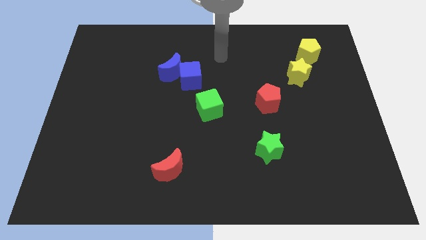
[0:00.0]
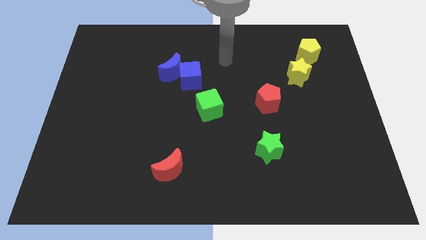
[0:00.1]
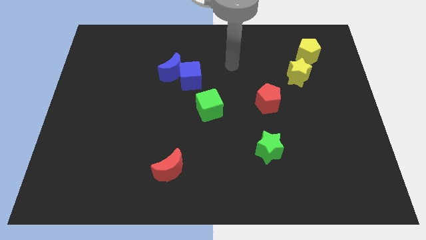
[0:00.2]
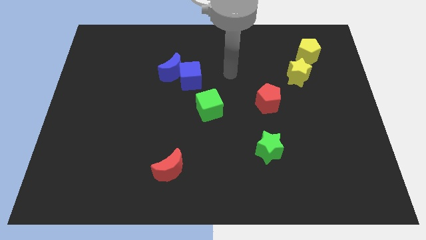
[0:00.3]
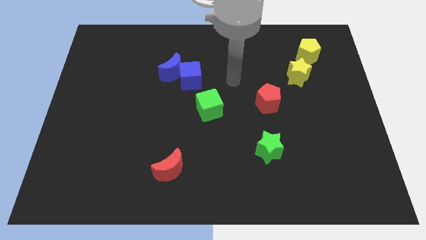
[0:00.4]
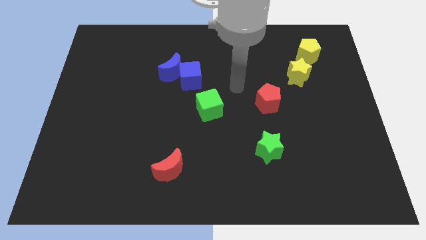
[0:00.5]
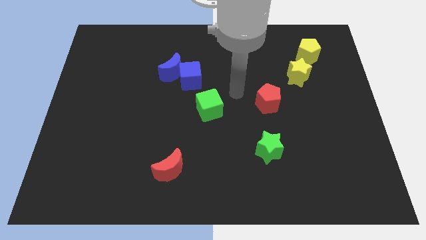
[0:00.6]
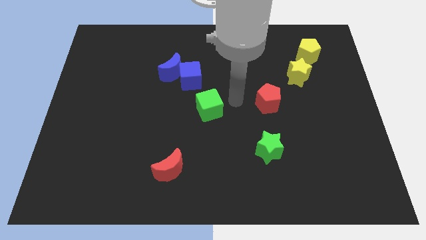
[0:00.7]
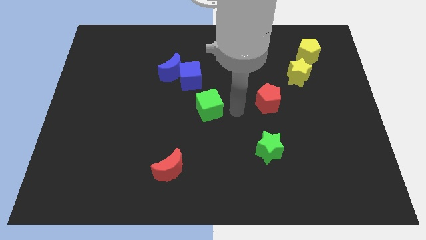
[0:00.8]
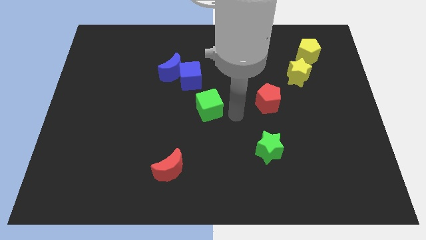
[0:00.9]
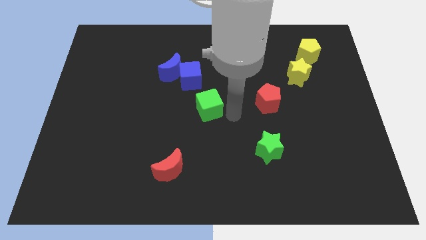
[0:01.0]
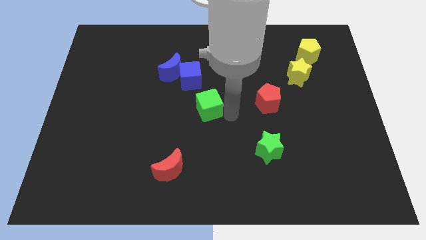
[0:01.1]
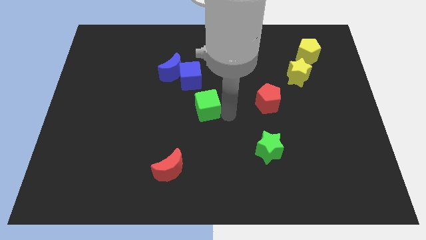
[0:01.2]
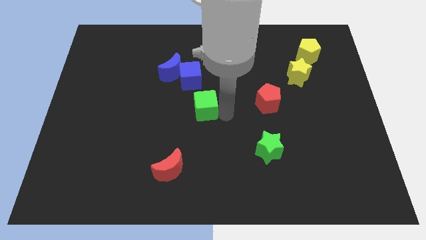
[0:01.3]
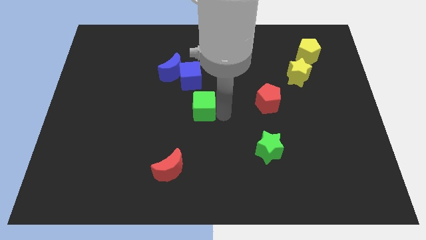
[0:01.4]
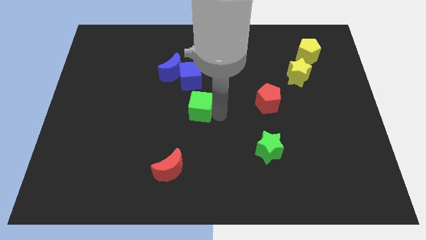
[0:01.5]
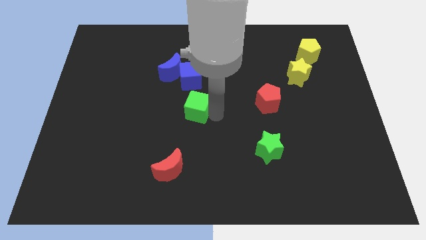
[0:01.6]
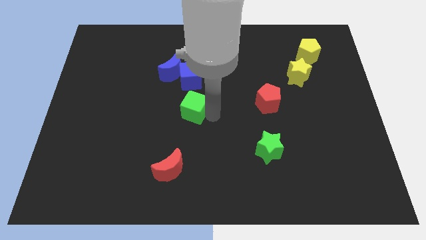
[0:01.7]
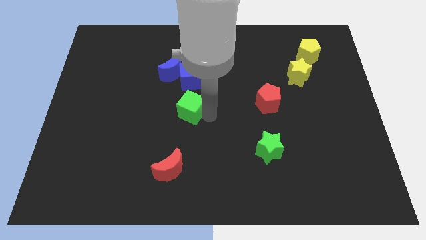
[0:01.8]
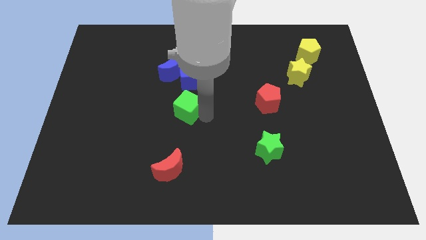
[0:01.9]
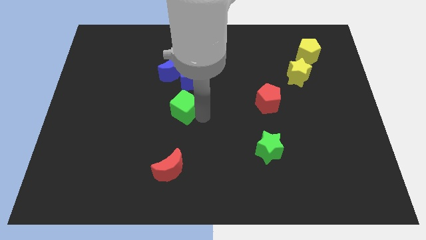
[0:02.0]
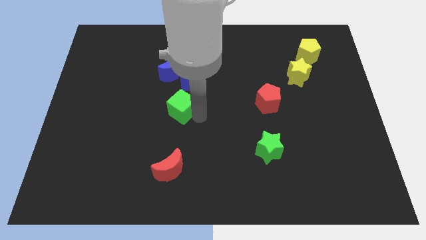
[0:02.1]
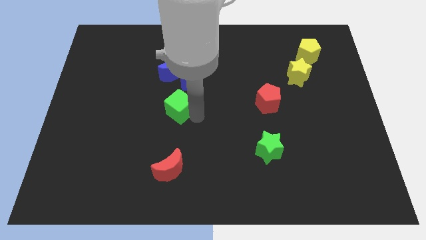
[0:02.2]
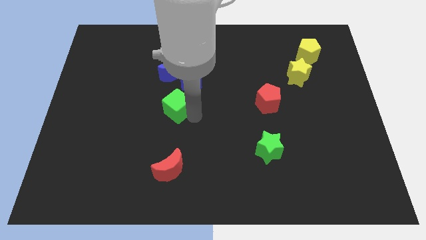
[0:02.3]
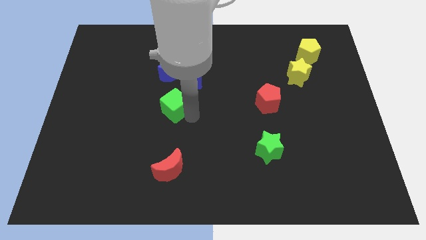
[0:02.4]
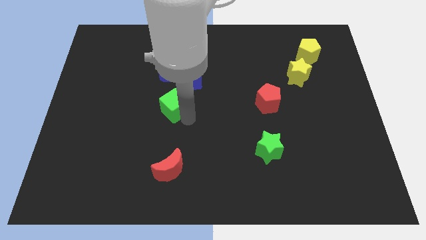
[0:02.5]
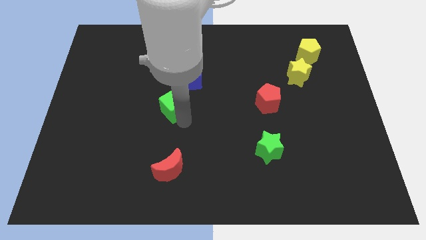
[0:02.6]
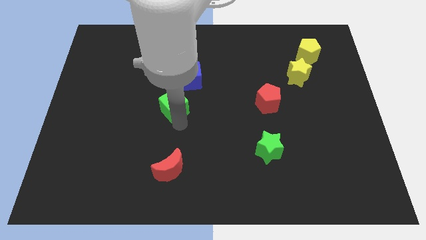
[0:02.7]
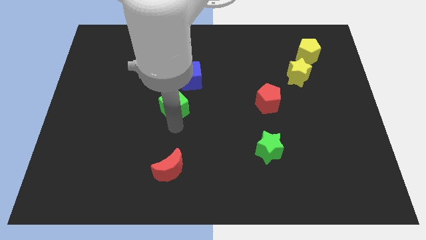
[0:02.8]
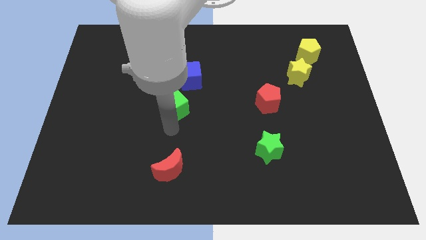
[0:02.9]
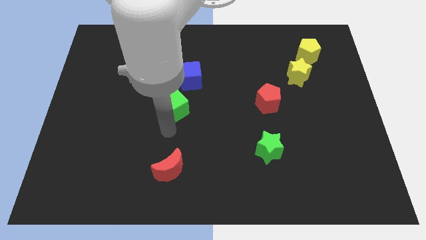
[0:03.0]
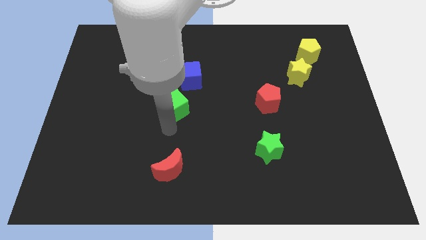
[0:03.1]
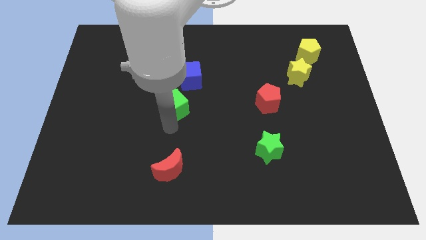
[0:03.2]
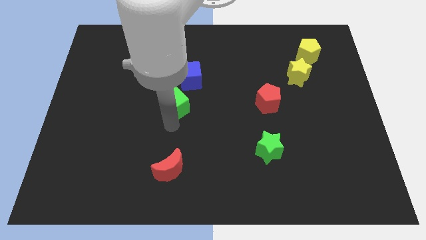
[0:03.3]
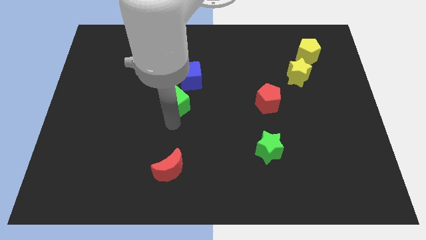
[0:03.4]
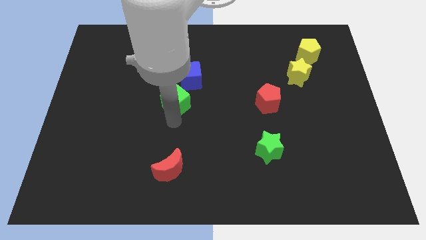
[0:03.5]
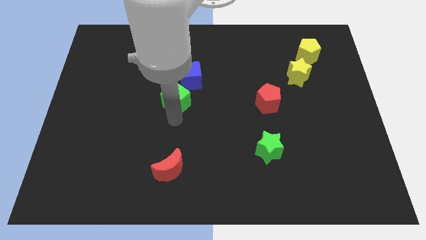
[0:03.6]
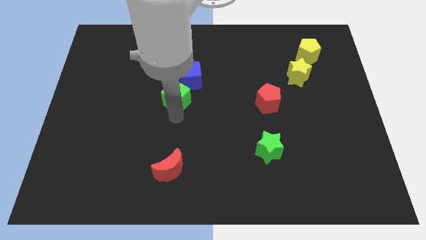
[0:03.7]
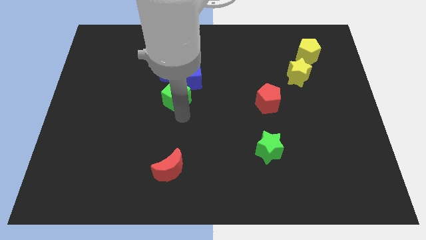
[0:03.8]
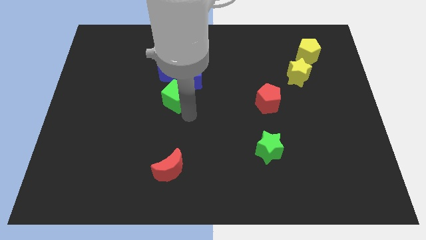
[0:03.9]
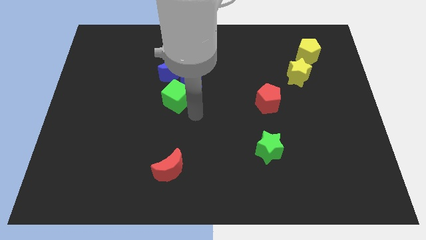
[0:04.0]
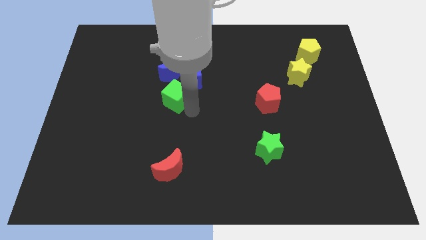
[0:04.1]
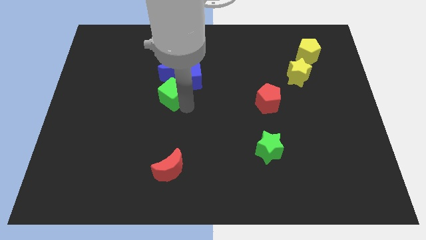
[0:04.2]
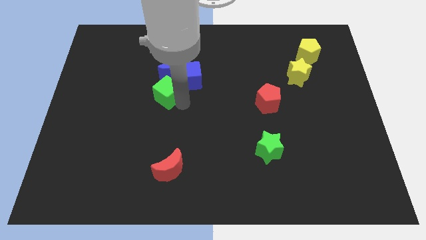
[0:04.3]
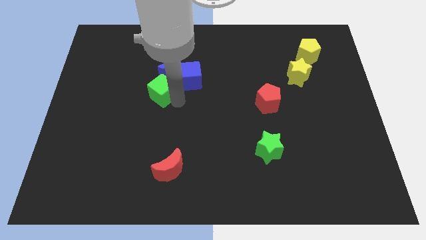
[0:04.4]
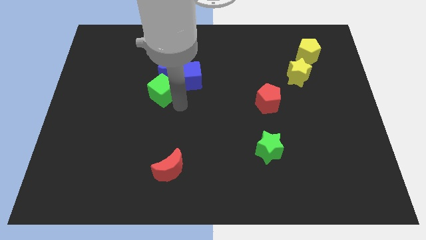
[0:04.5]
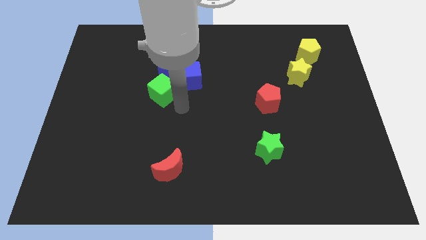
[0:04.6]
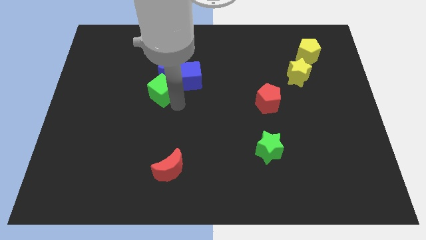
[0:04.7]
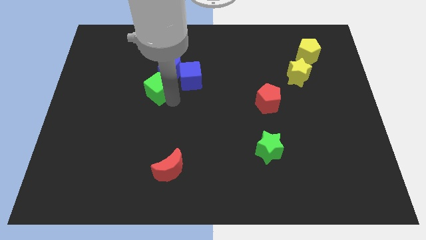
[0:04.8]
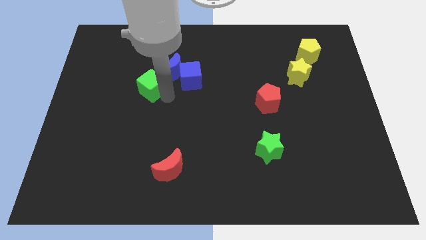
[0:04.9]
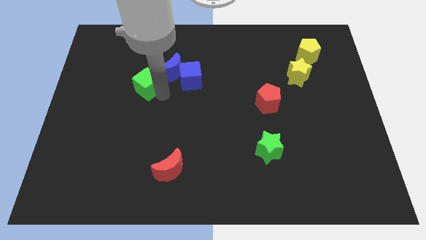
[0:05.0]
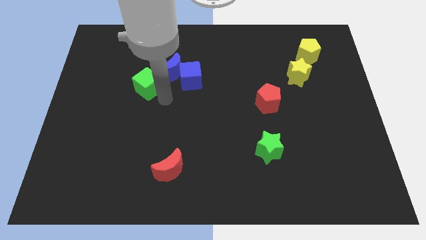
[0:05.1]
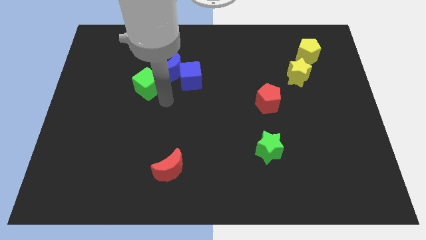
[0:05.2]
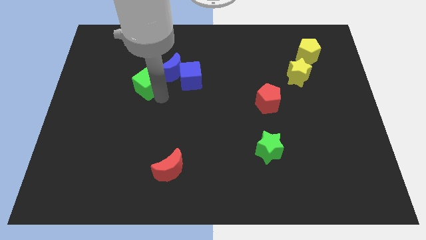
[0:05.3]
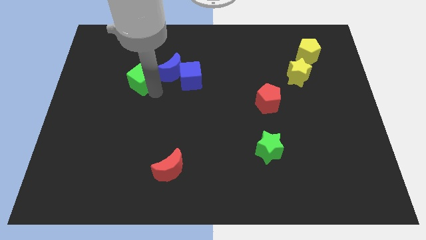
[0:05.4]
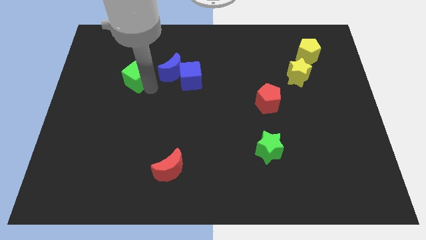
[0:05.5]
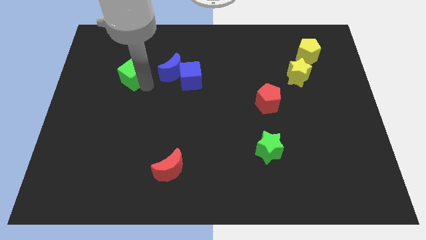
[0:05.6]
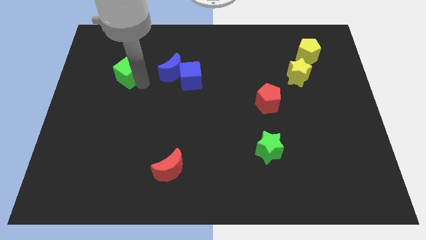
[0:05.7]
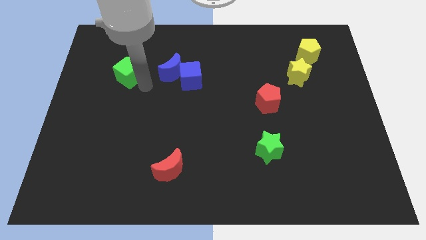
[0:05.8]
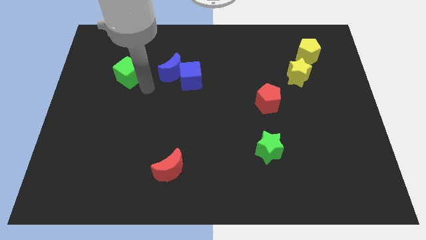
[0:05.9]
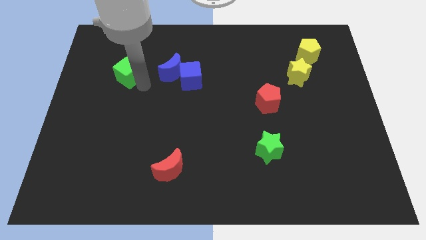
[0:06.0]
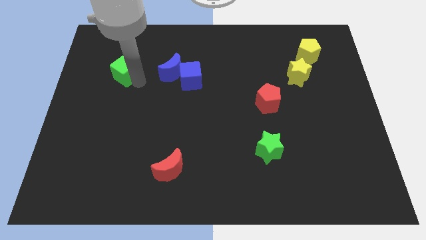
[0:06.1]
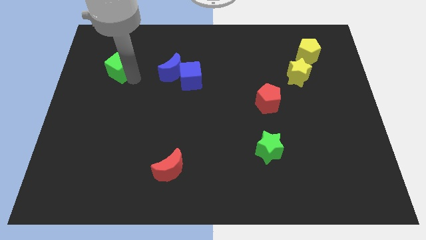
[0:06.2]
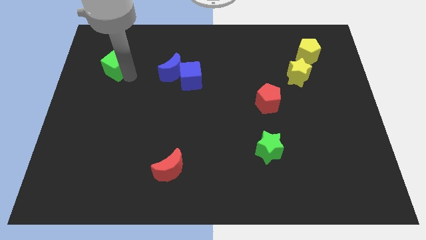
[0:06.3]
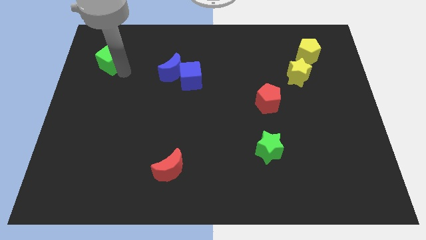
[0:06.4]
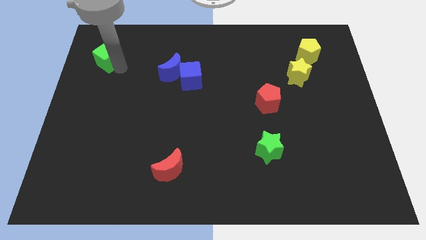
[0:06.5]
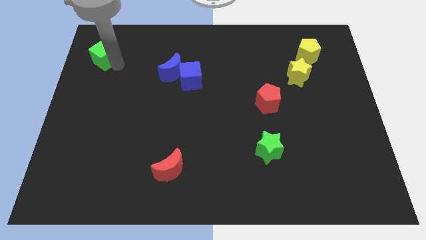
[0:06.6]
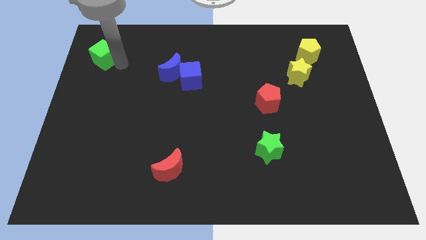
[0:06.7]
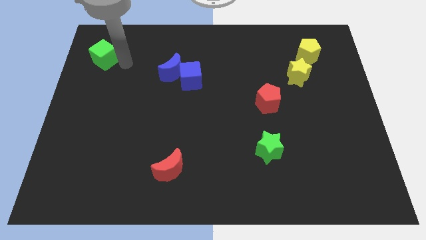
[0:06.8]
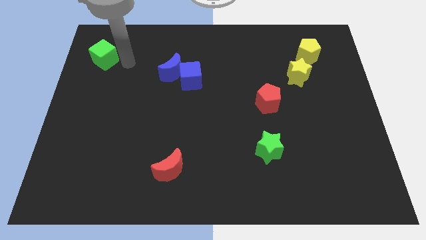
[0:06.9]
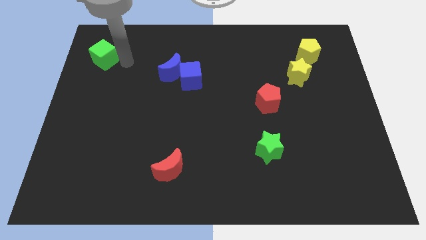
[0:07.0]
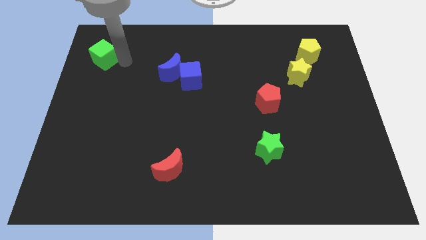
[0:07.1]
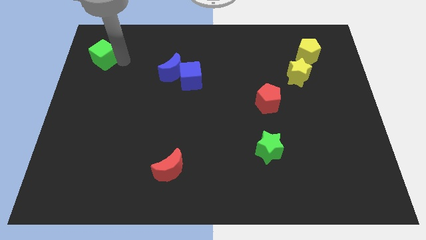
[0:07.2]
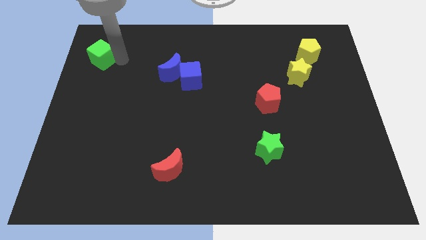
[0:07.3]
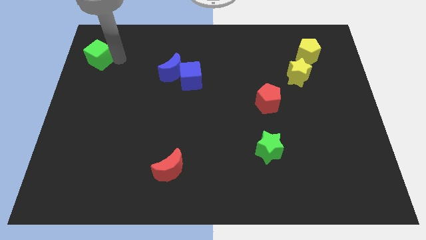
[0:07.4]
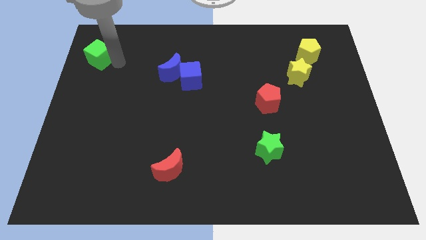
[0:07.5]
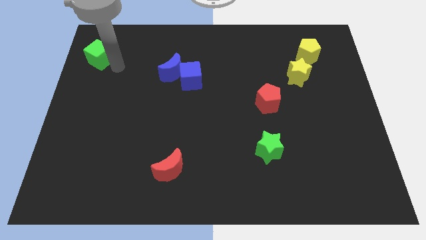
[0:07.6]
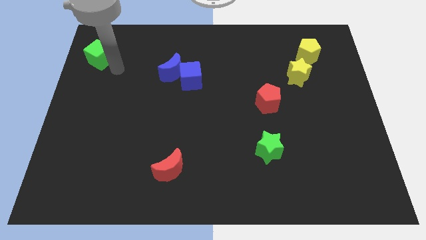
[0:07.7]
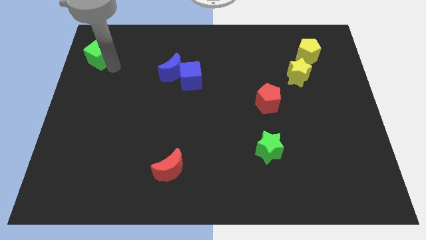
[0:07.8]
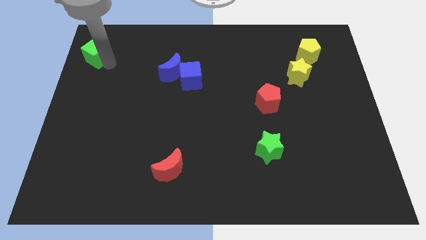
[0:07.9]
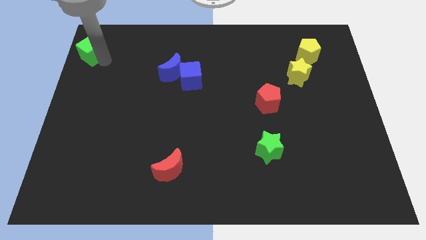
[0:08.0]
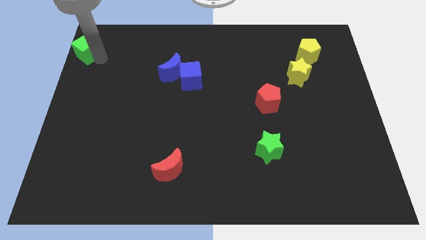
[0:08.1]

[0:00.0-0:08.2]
put the green cube to the top left of the board
